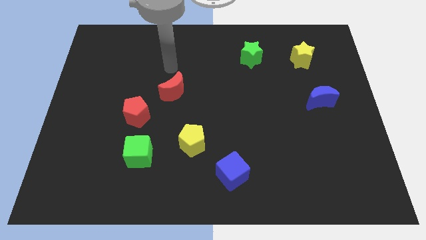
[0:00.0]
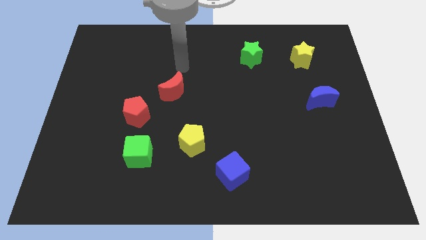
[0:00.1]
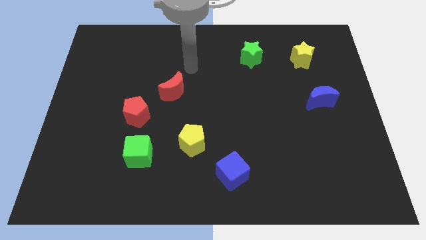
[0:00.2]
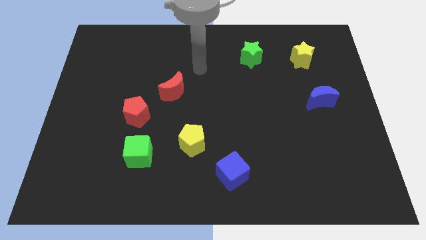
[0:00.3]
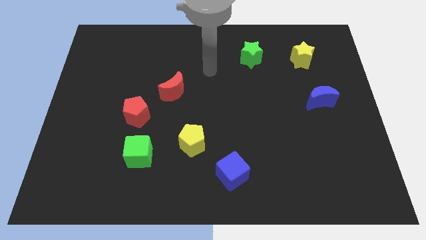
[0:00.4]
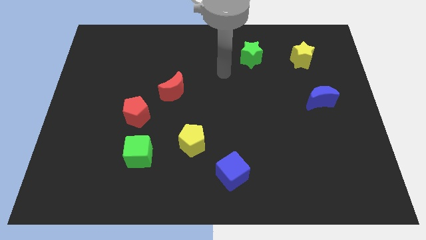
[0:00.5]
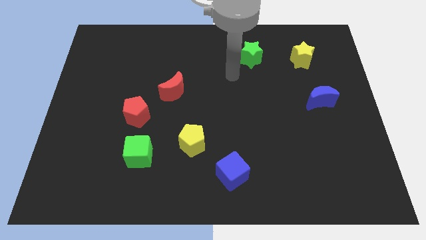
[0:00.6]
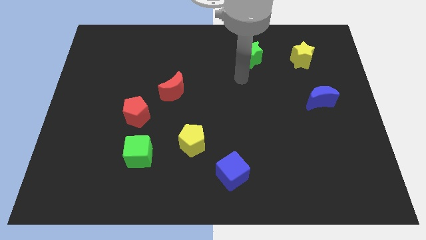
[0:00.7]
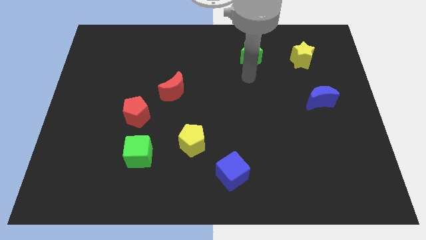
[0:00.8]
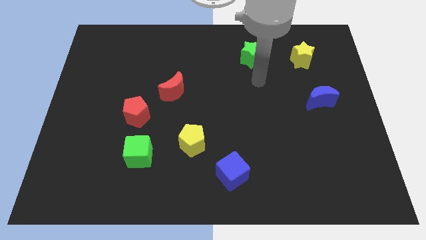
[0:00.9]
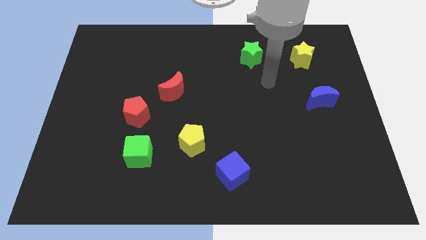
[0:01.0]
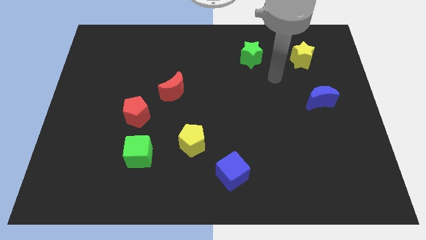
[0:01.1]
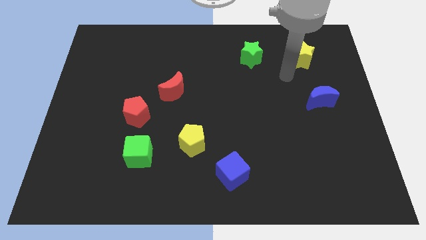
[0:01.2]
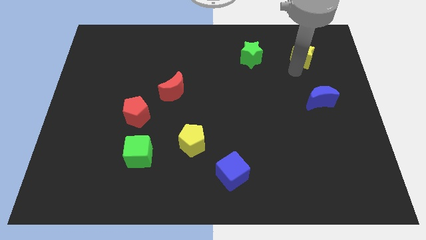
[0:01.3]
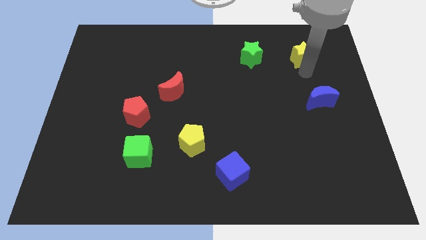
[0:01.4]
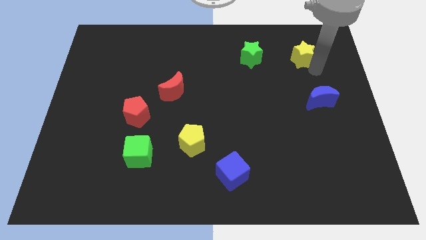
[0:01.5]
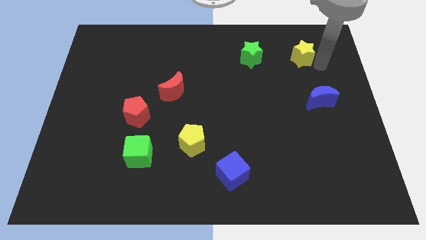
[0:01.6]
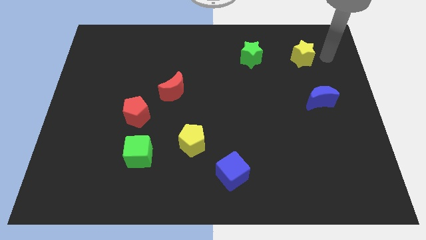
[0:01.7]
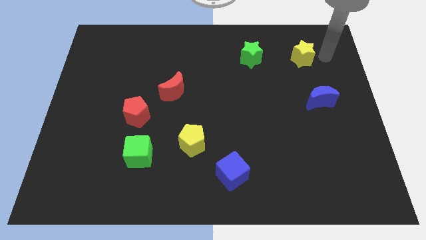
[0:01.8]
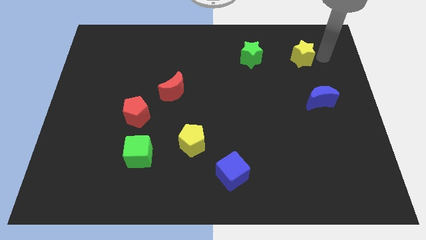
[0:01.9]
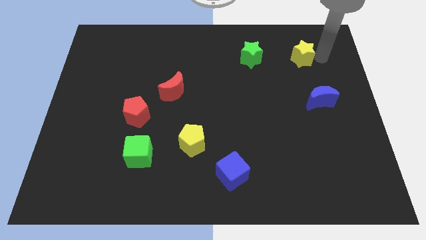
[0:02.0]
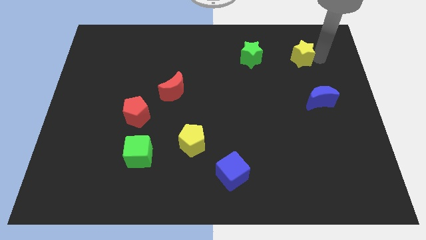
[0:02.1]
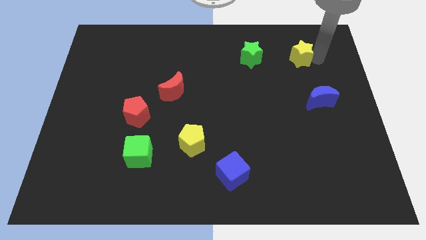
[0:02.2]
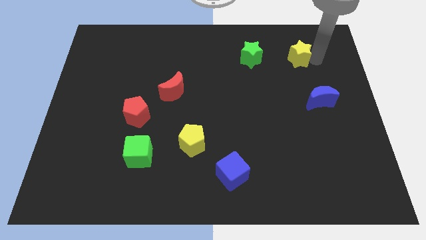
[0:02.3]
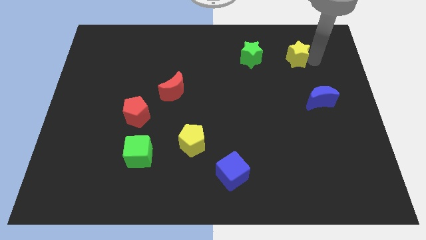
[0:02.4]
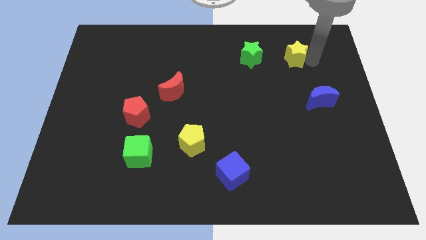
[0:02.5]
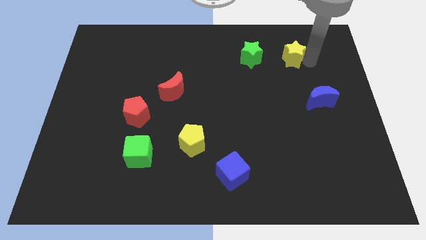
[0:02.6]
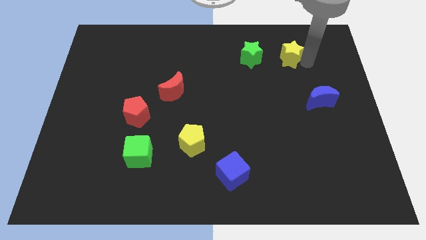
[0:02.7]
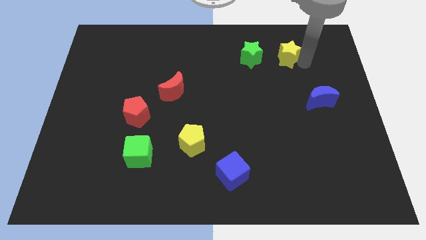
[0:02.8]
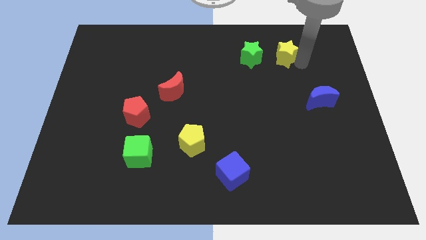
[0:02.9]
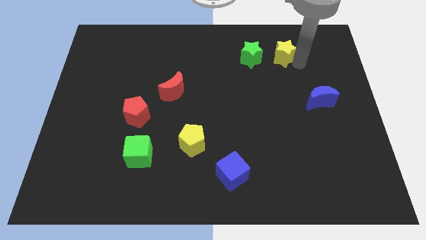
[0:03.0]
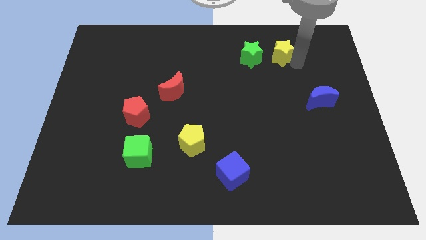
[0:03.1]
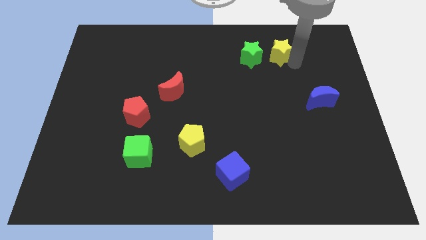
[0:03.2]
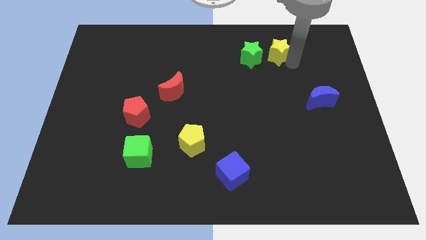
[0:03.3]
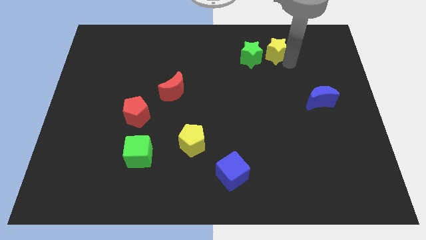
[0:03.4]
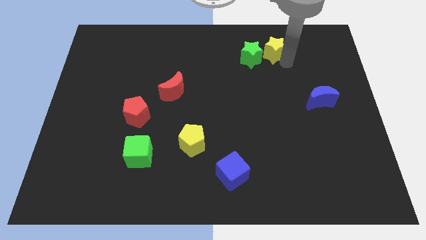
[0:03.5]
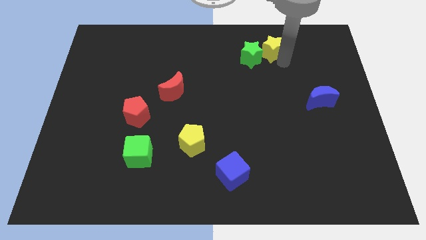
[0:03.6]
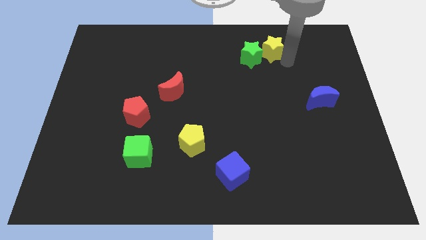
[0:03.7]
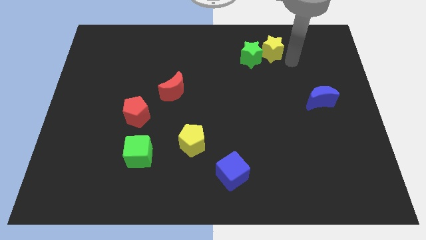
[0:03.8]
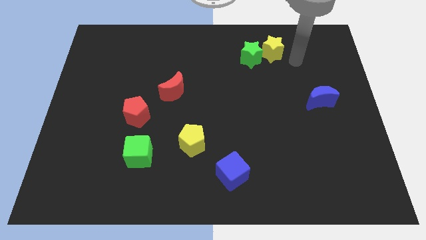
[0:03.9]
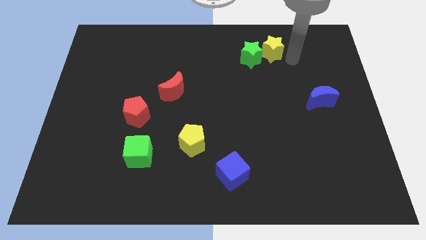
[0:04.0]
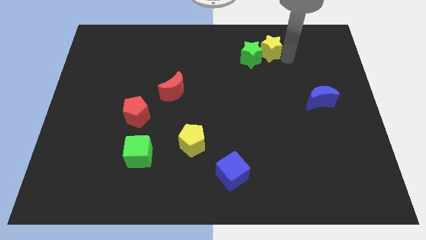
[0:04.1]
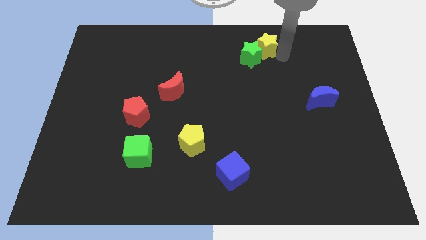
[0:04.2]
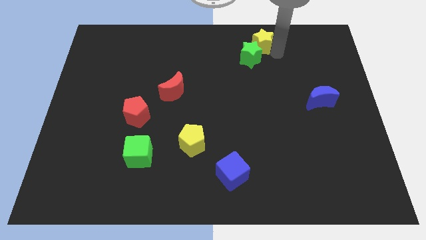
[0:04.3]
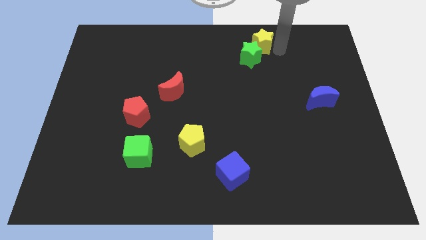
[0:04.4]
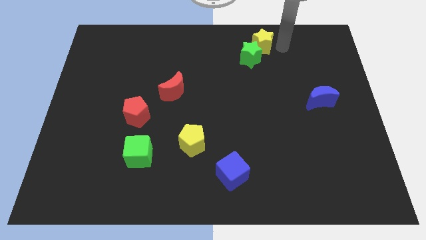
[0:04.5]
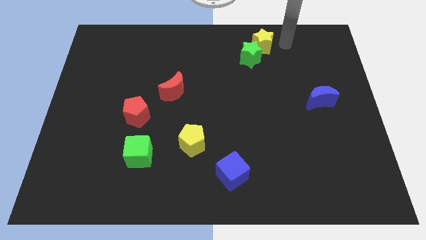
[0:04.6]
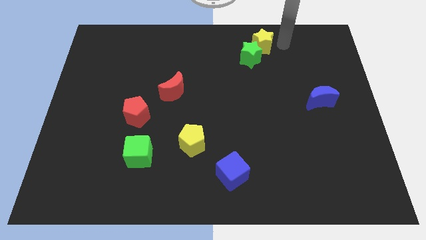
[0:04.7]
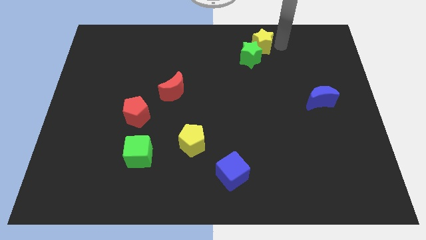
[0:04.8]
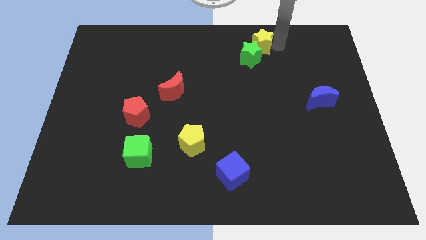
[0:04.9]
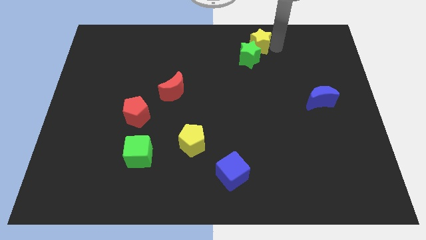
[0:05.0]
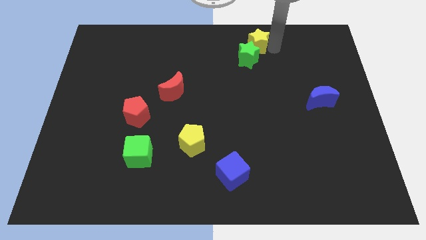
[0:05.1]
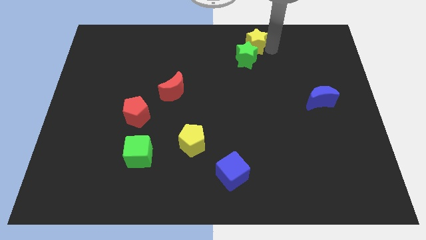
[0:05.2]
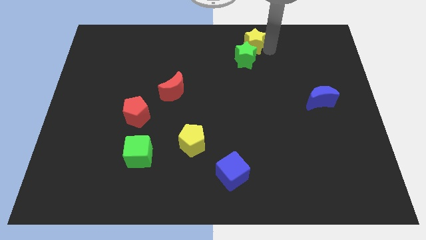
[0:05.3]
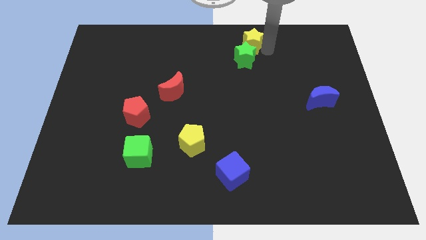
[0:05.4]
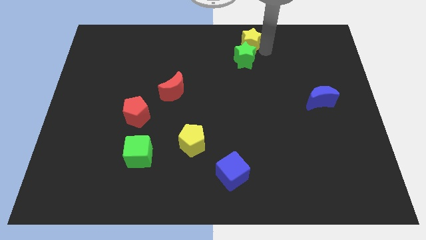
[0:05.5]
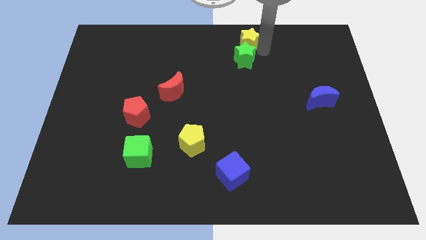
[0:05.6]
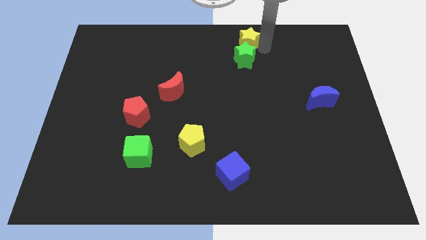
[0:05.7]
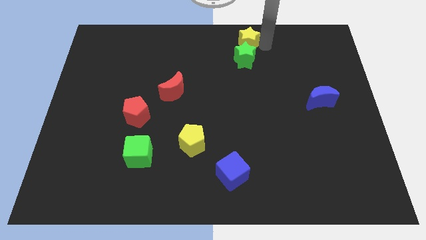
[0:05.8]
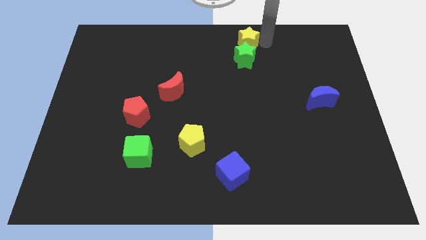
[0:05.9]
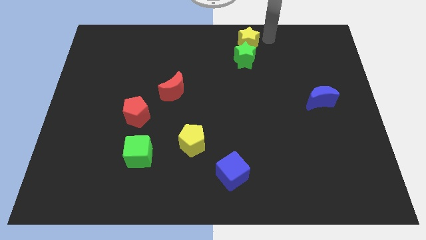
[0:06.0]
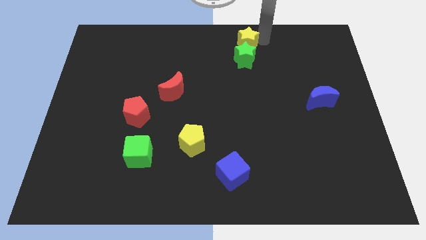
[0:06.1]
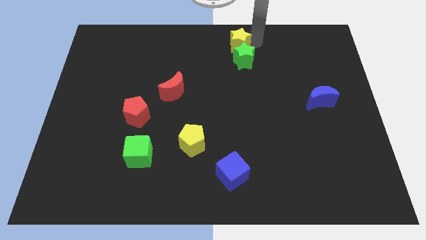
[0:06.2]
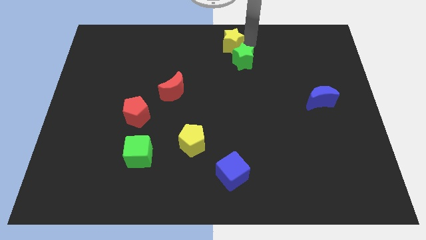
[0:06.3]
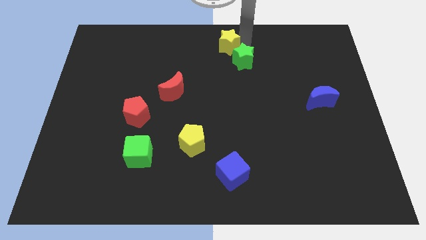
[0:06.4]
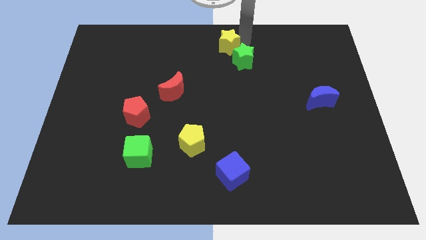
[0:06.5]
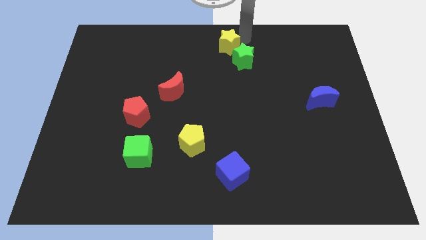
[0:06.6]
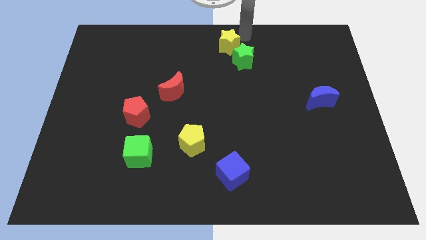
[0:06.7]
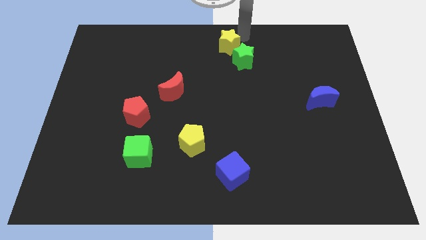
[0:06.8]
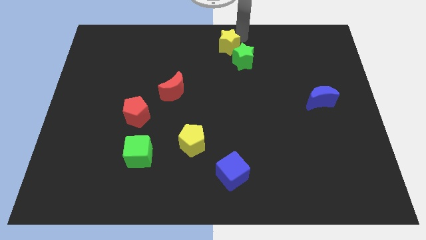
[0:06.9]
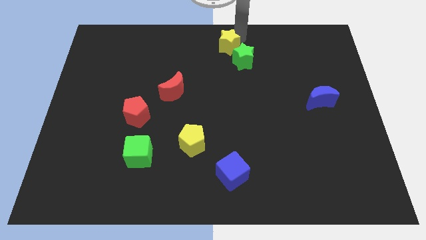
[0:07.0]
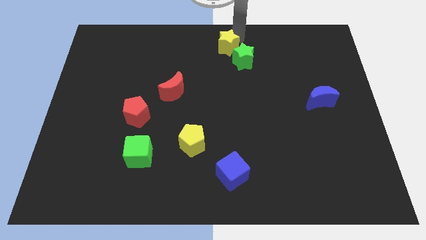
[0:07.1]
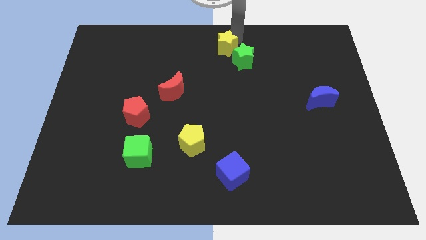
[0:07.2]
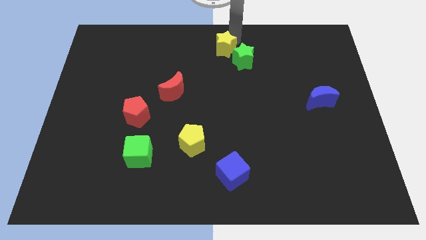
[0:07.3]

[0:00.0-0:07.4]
slide the yellow star to the left

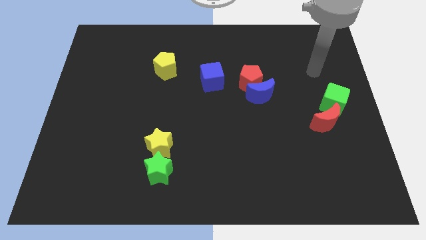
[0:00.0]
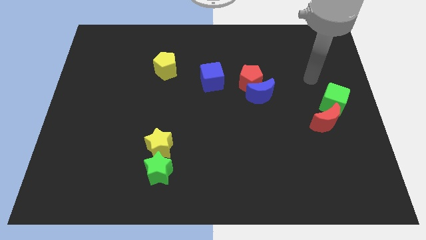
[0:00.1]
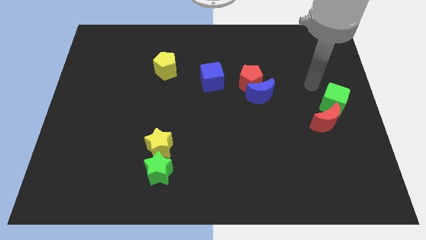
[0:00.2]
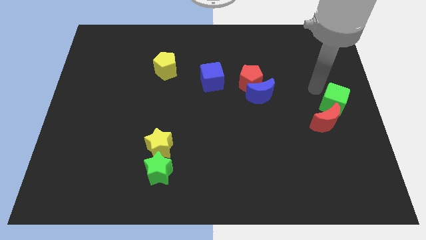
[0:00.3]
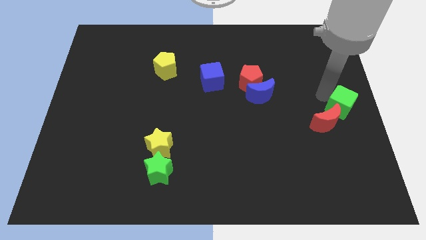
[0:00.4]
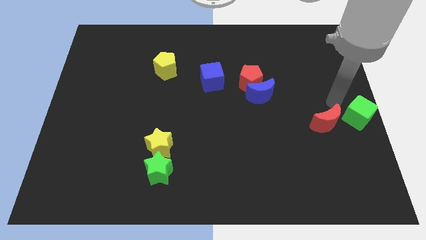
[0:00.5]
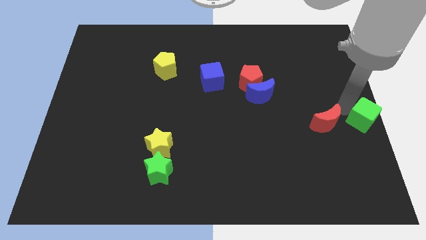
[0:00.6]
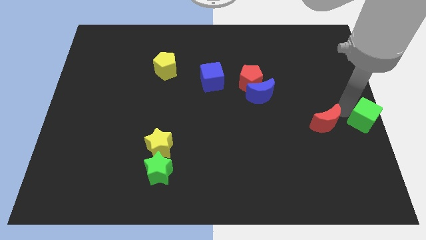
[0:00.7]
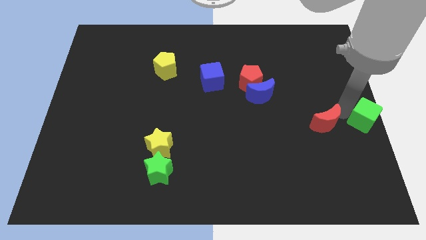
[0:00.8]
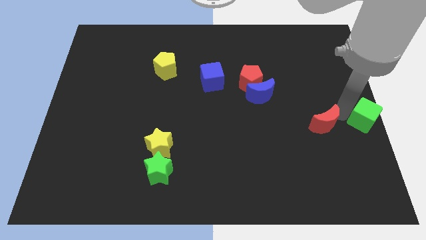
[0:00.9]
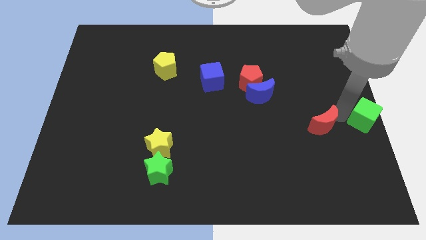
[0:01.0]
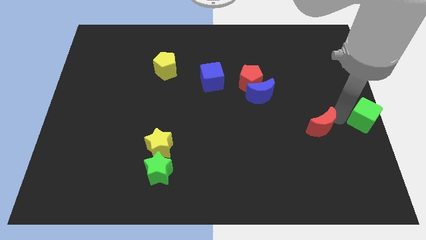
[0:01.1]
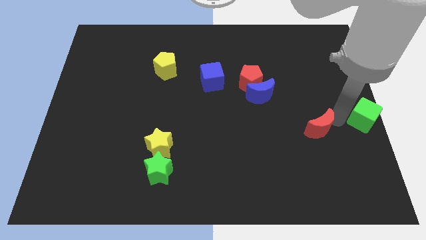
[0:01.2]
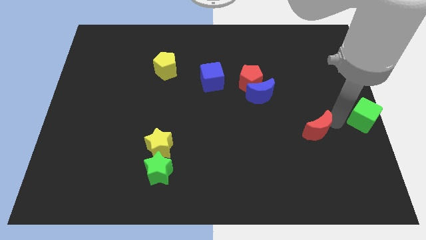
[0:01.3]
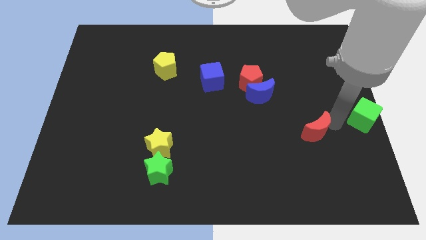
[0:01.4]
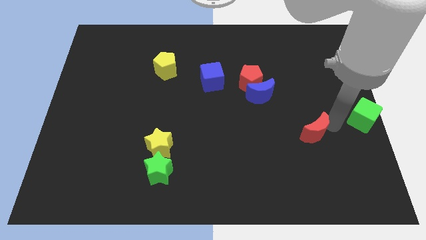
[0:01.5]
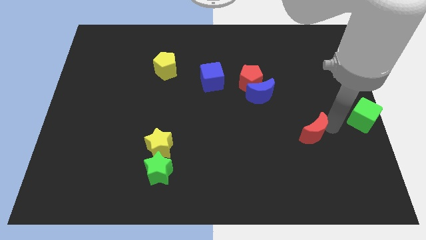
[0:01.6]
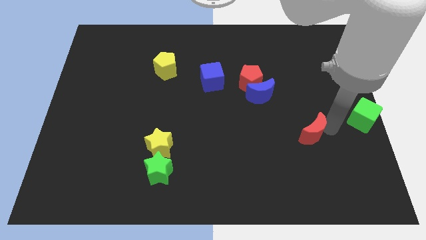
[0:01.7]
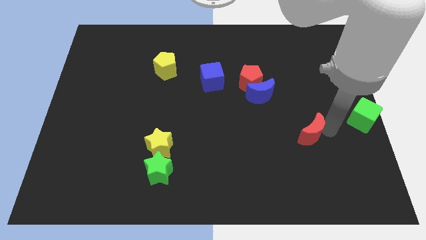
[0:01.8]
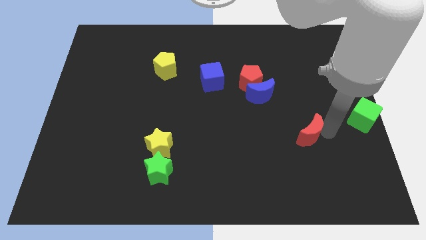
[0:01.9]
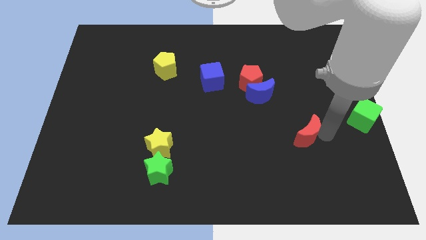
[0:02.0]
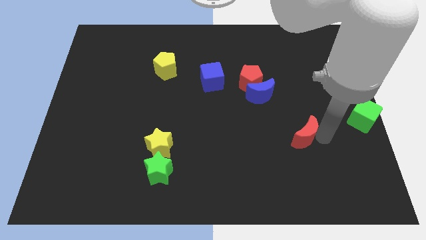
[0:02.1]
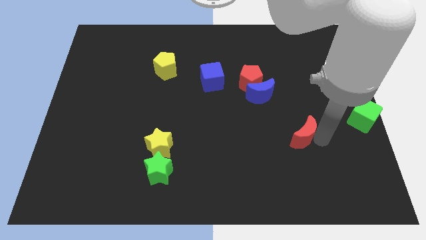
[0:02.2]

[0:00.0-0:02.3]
push the red moon downwards and to the left somewhat
